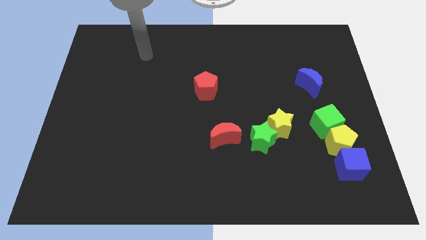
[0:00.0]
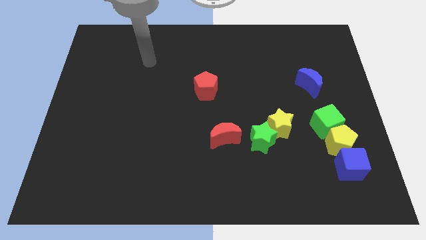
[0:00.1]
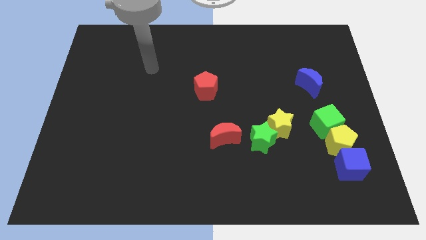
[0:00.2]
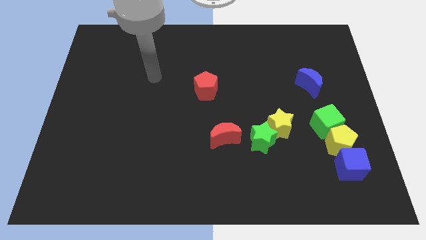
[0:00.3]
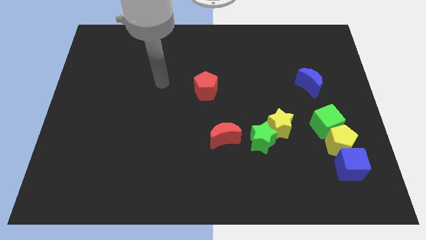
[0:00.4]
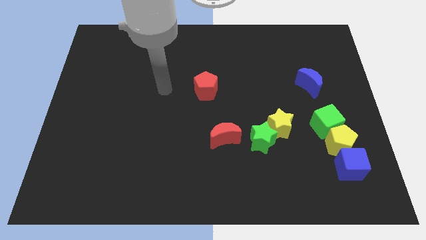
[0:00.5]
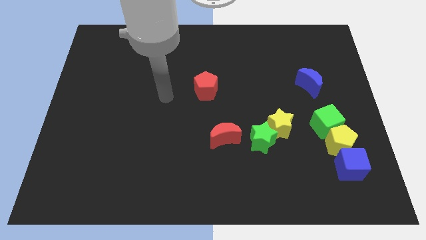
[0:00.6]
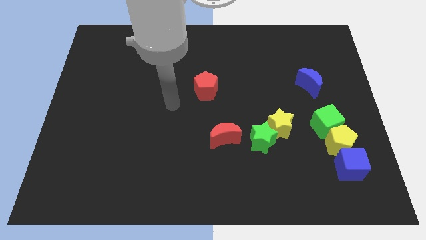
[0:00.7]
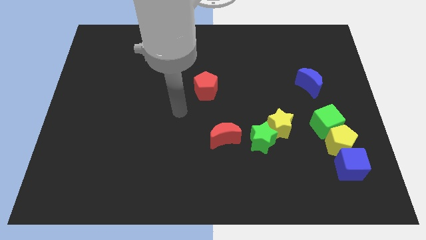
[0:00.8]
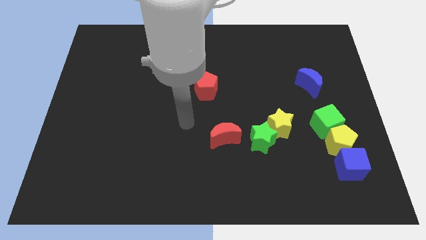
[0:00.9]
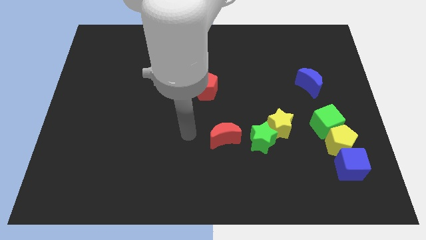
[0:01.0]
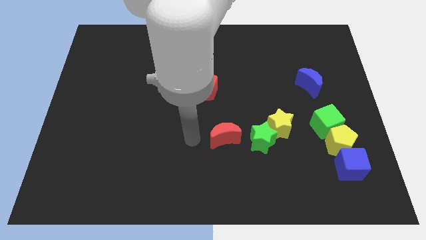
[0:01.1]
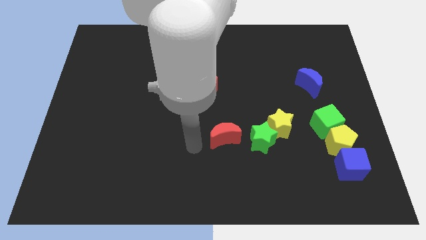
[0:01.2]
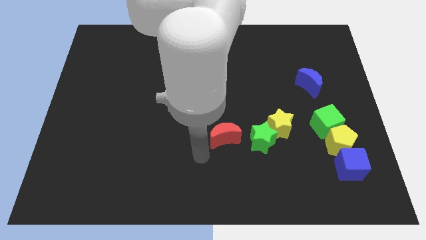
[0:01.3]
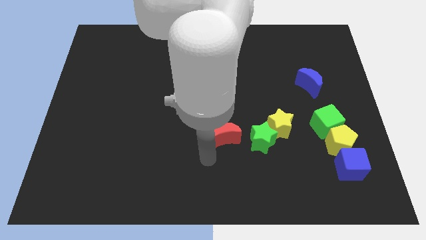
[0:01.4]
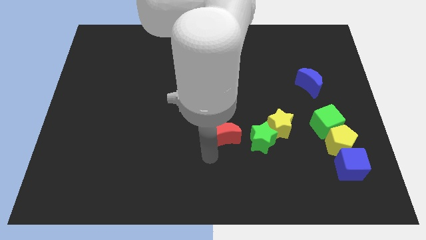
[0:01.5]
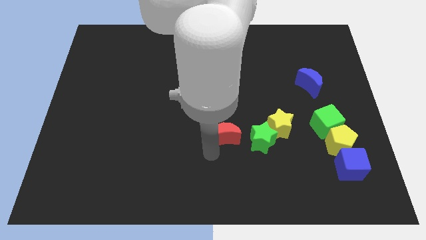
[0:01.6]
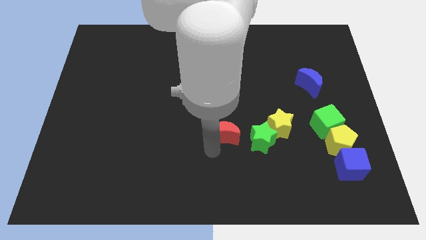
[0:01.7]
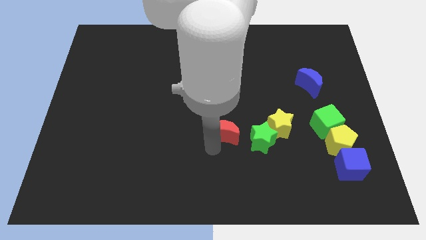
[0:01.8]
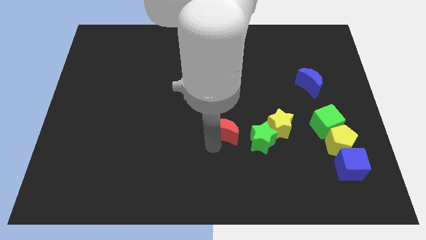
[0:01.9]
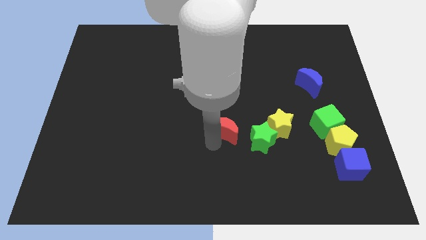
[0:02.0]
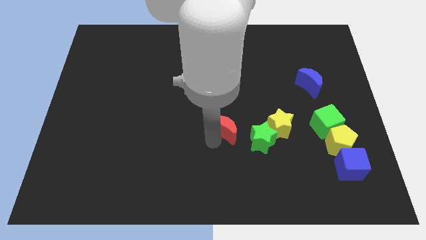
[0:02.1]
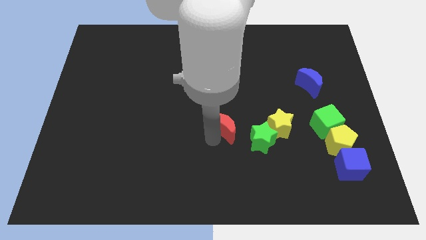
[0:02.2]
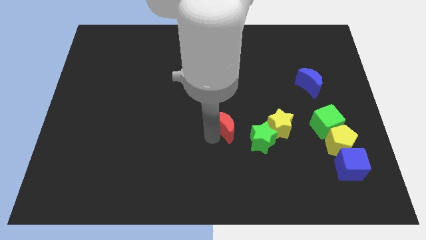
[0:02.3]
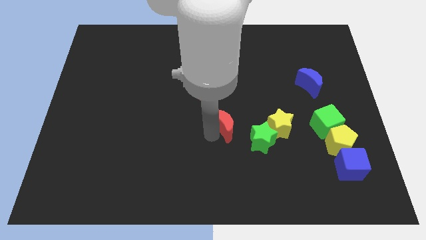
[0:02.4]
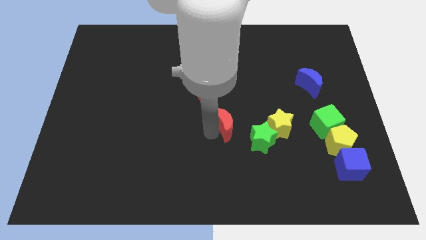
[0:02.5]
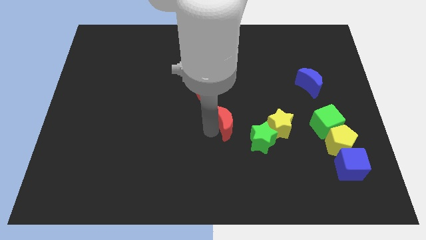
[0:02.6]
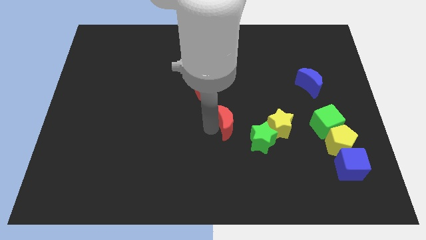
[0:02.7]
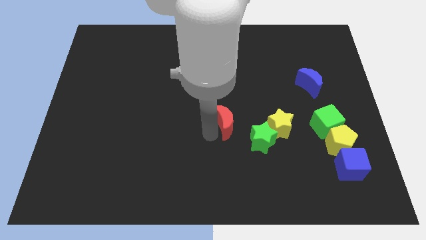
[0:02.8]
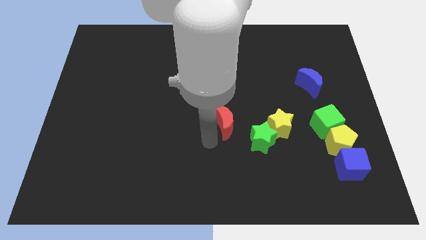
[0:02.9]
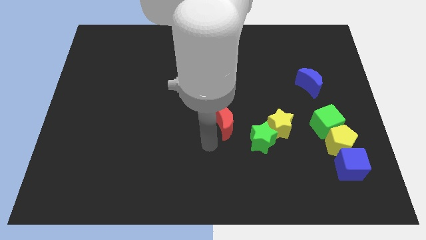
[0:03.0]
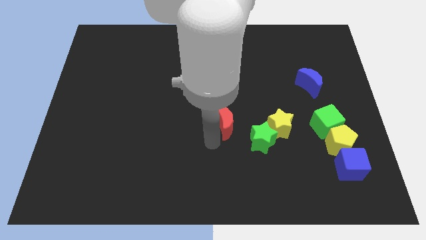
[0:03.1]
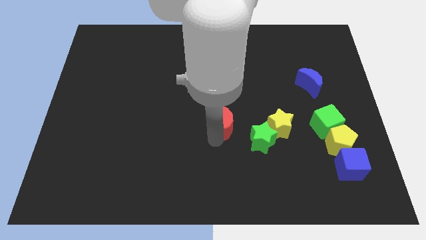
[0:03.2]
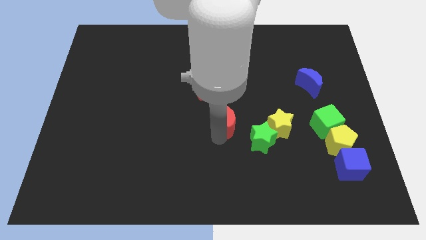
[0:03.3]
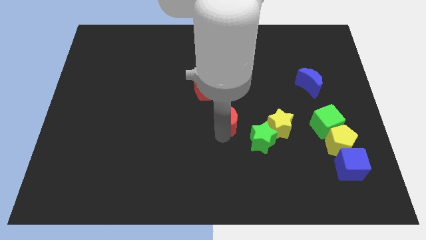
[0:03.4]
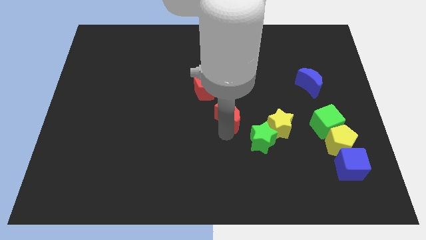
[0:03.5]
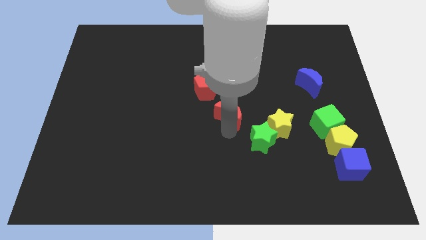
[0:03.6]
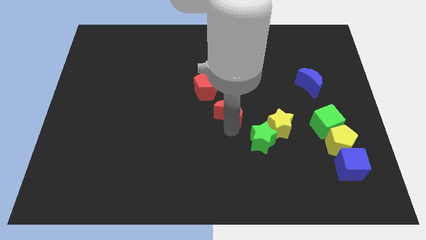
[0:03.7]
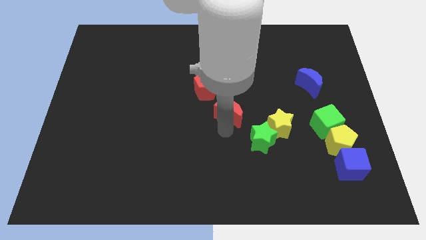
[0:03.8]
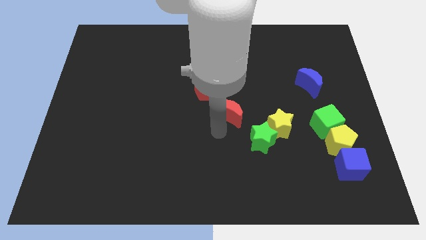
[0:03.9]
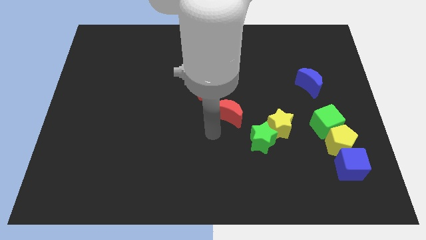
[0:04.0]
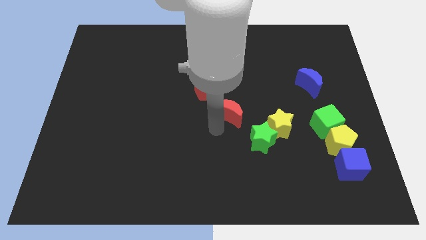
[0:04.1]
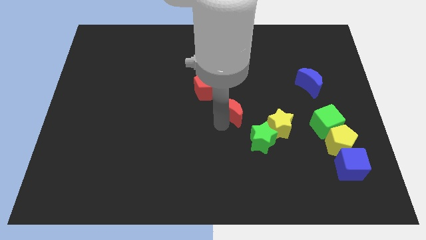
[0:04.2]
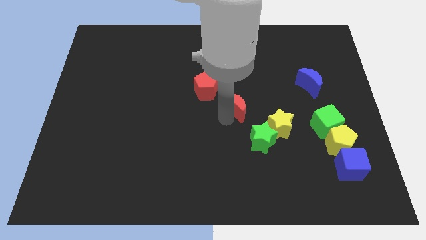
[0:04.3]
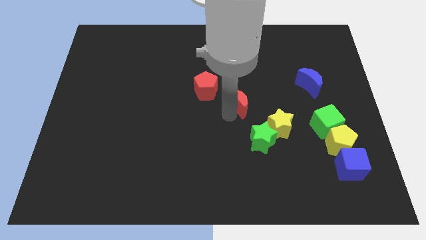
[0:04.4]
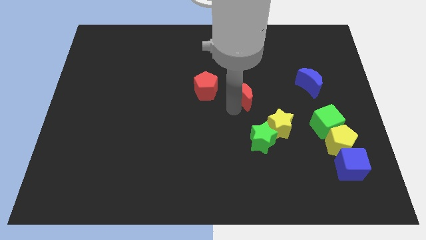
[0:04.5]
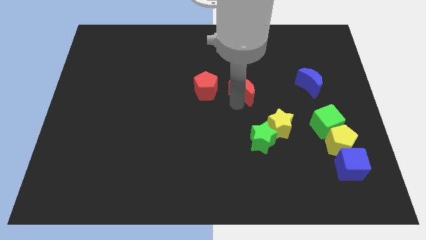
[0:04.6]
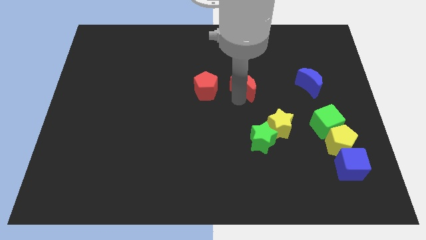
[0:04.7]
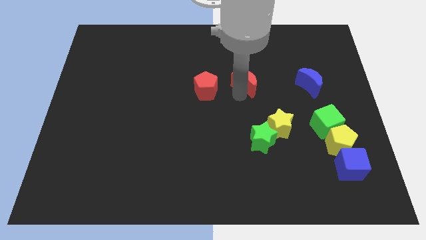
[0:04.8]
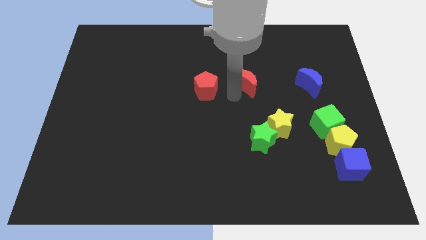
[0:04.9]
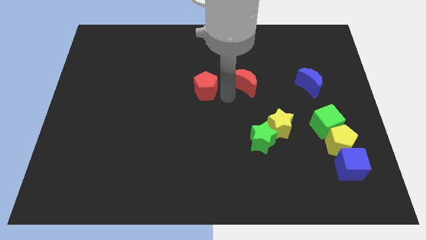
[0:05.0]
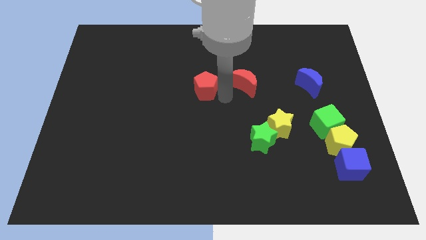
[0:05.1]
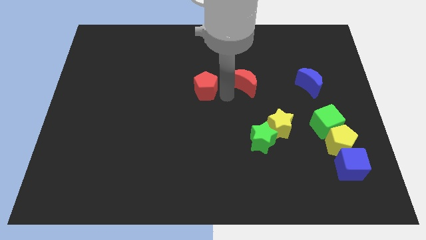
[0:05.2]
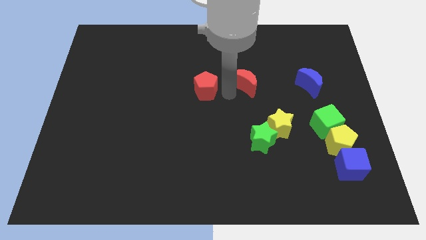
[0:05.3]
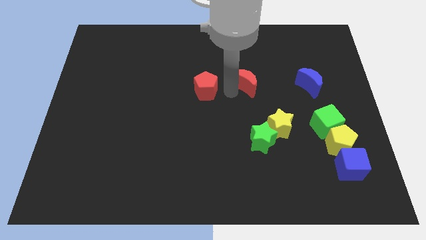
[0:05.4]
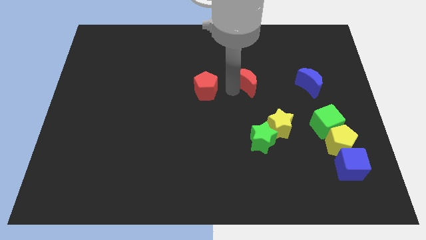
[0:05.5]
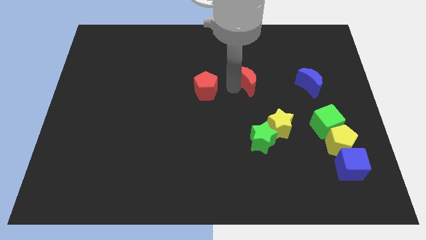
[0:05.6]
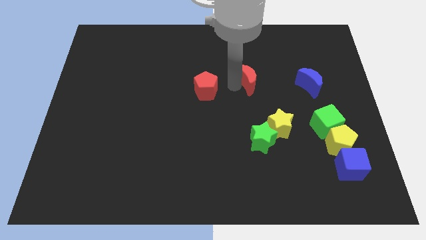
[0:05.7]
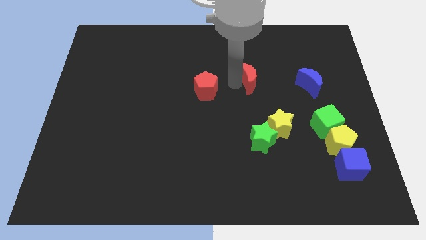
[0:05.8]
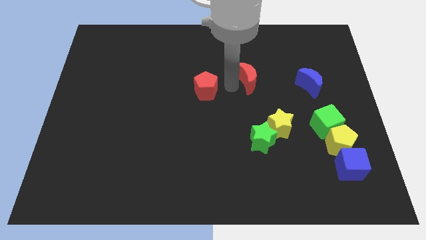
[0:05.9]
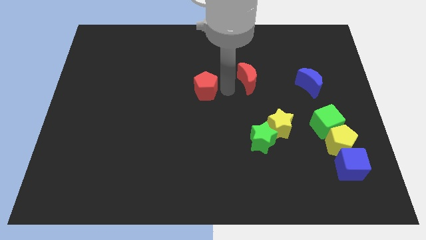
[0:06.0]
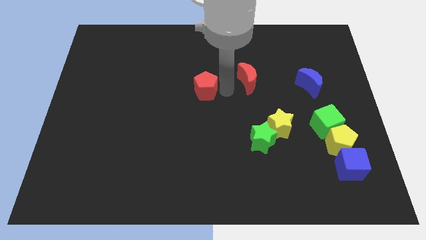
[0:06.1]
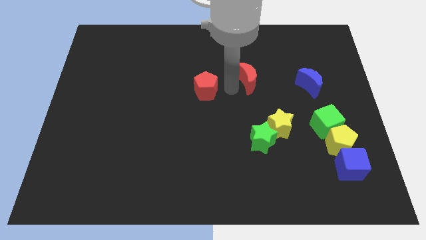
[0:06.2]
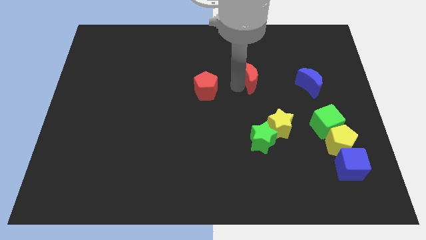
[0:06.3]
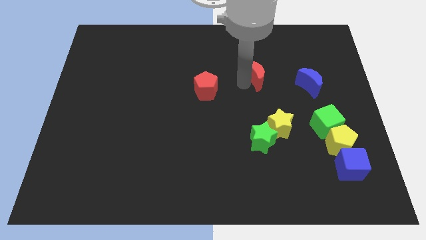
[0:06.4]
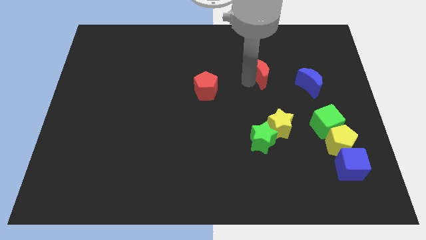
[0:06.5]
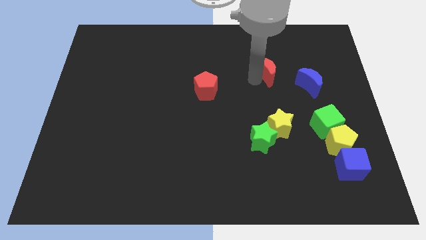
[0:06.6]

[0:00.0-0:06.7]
move the red moon upwards and right

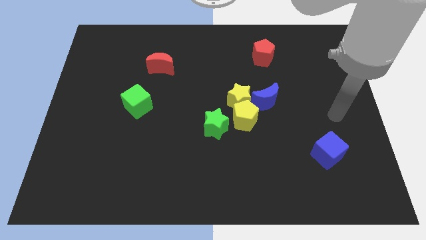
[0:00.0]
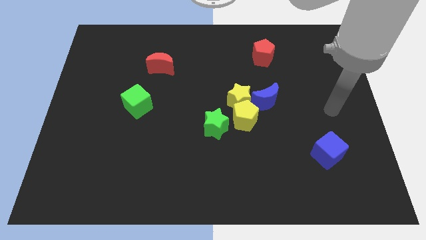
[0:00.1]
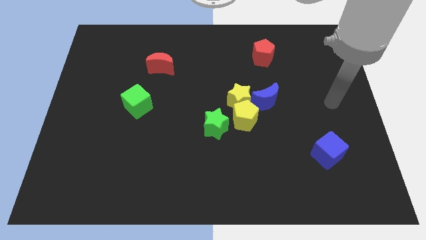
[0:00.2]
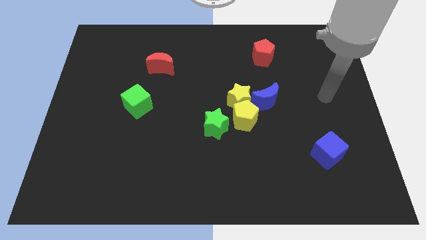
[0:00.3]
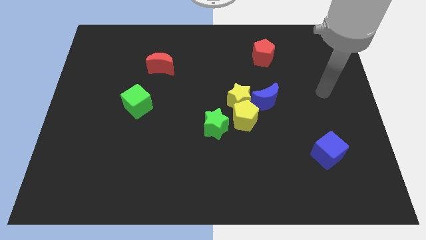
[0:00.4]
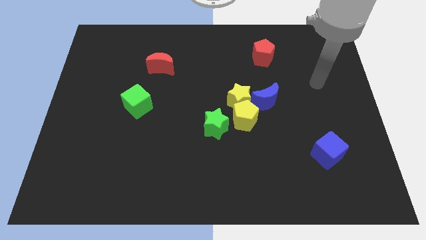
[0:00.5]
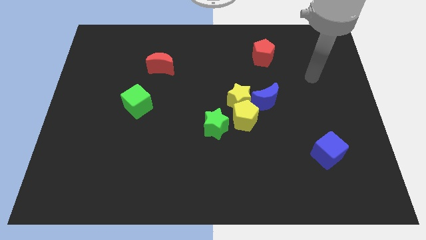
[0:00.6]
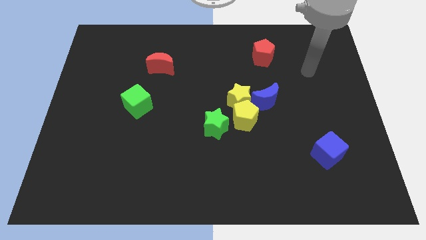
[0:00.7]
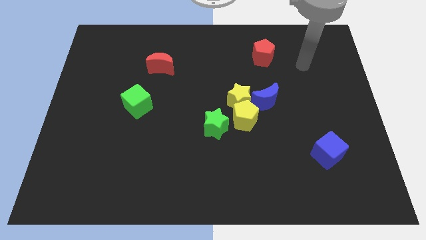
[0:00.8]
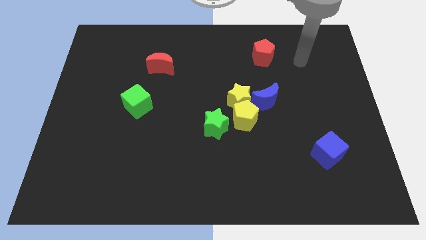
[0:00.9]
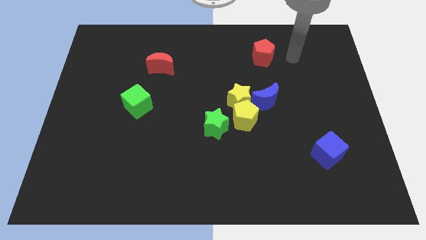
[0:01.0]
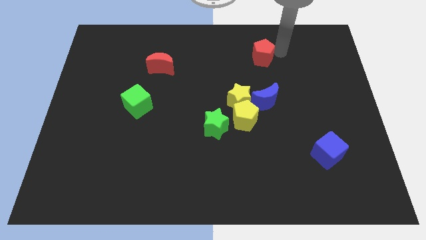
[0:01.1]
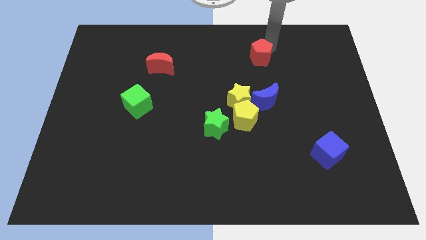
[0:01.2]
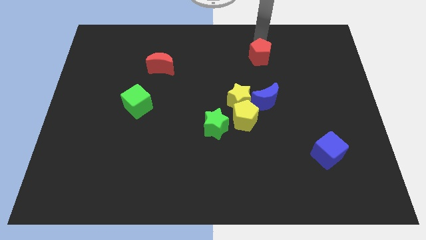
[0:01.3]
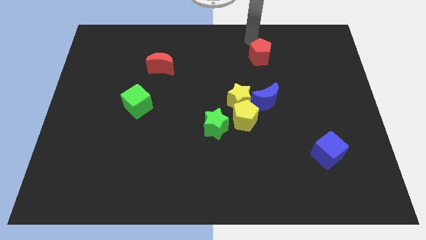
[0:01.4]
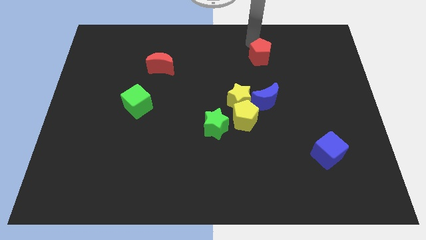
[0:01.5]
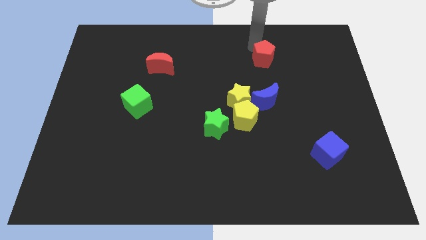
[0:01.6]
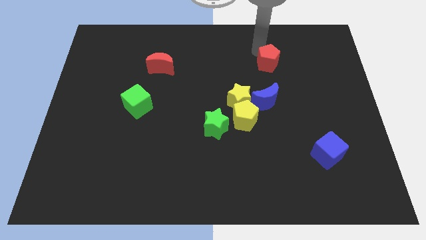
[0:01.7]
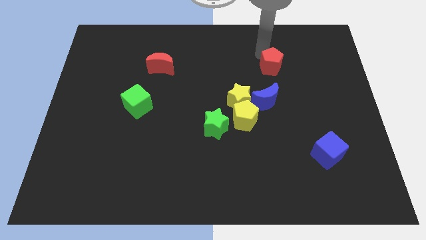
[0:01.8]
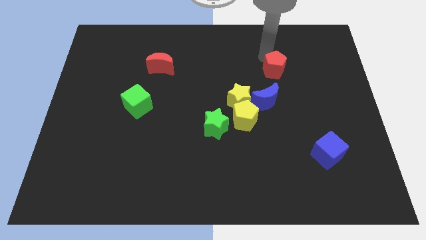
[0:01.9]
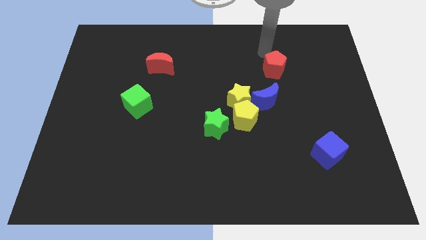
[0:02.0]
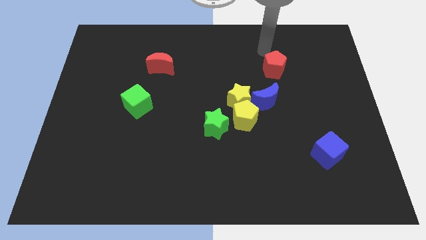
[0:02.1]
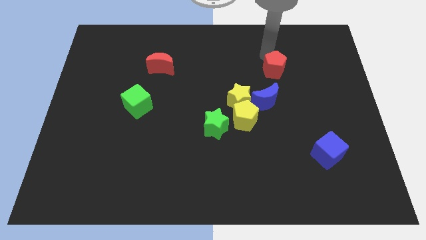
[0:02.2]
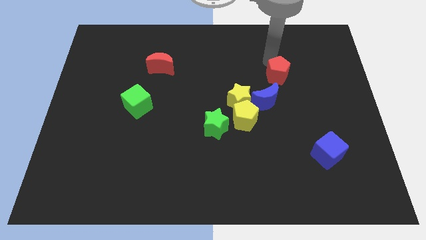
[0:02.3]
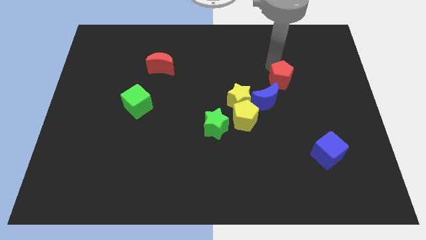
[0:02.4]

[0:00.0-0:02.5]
push the red pentagon slightly downwards
